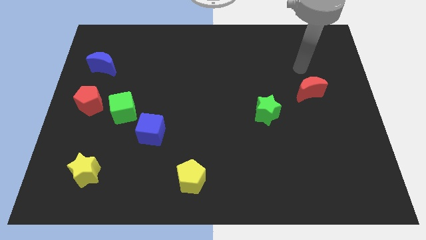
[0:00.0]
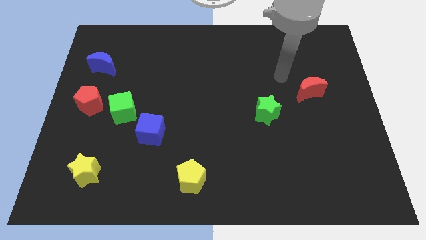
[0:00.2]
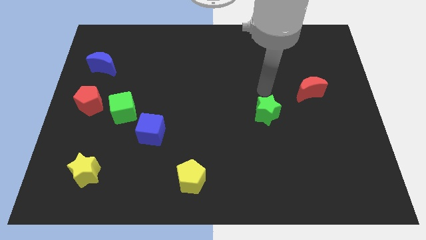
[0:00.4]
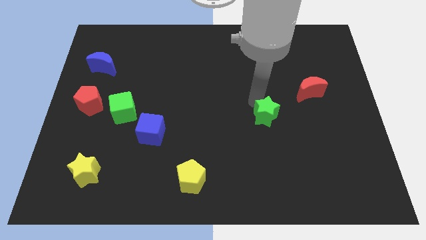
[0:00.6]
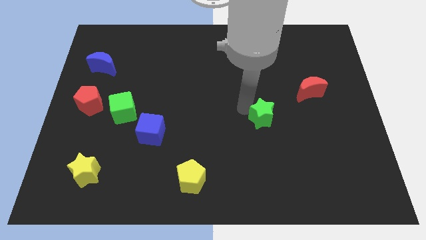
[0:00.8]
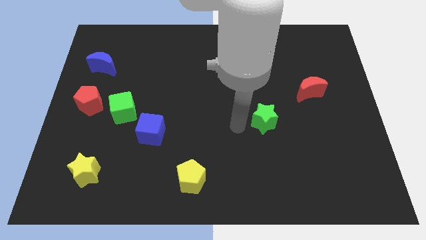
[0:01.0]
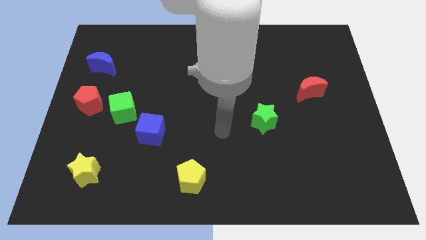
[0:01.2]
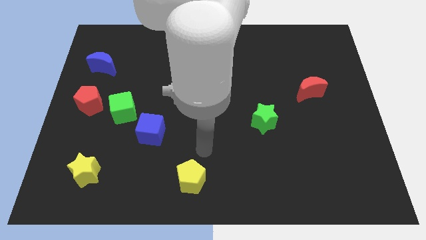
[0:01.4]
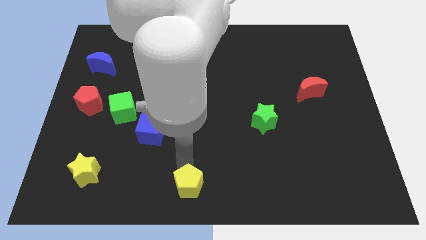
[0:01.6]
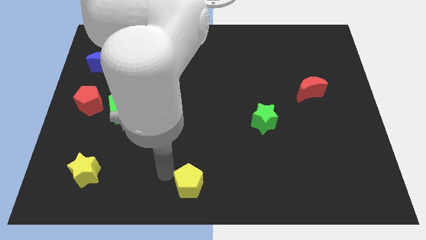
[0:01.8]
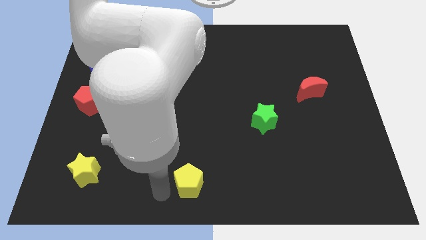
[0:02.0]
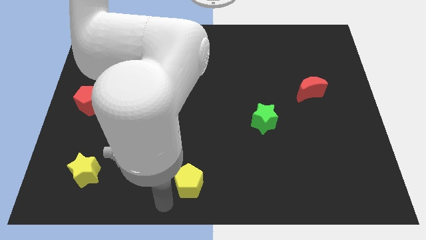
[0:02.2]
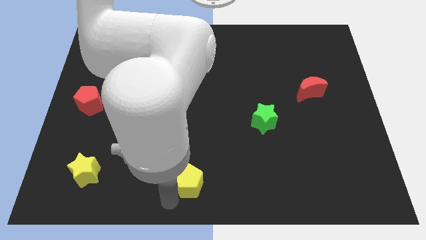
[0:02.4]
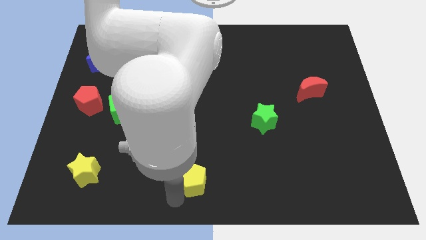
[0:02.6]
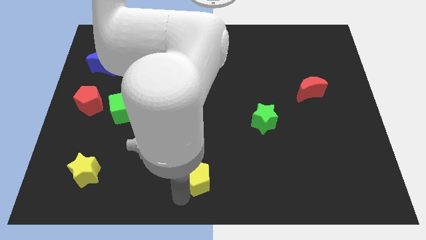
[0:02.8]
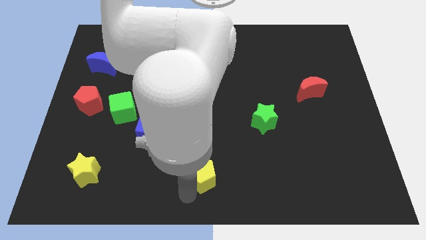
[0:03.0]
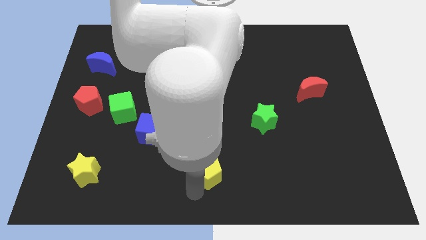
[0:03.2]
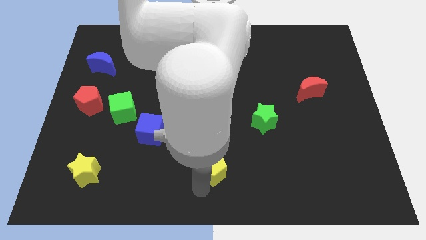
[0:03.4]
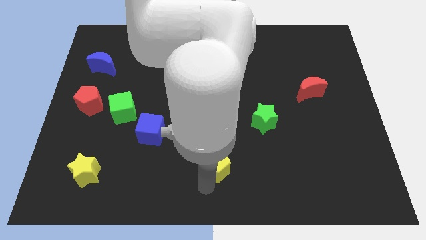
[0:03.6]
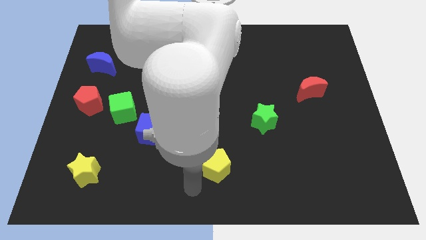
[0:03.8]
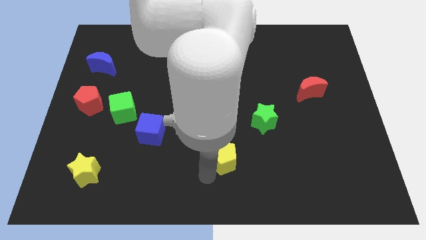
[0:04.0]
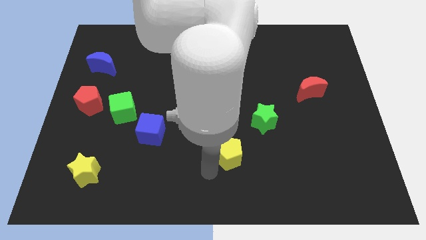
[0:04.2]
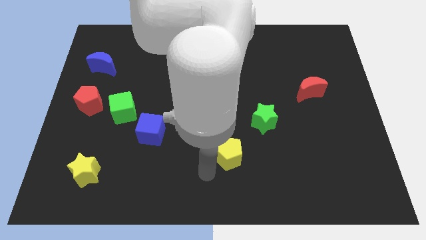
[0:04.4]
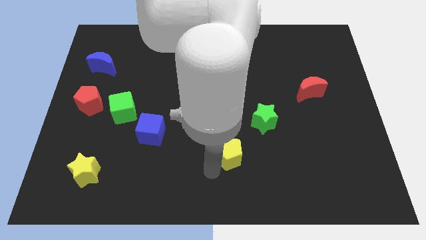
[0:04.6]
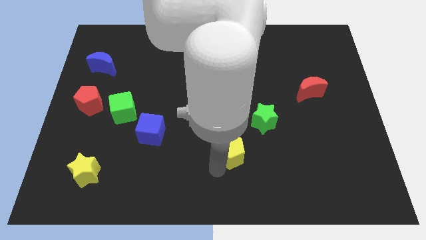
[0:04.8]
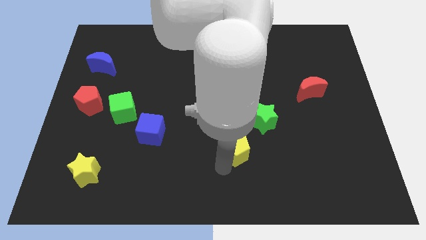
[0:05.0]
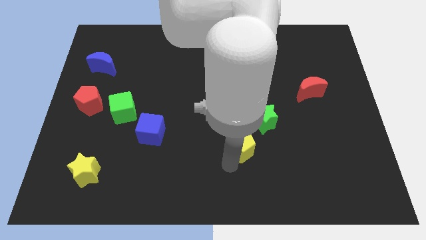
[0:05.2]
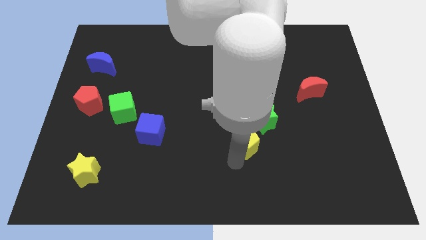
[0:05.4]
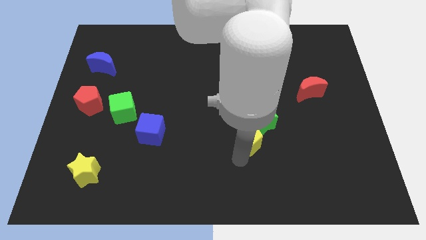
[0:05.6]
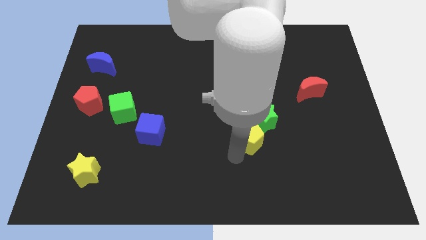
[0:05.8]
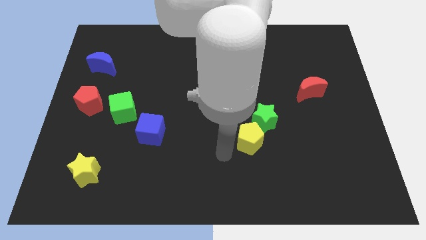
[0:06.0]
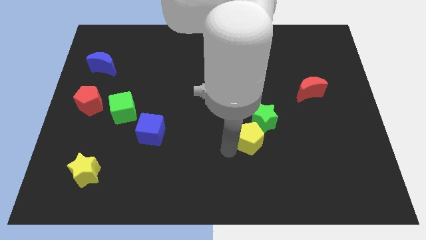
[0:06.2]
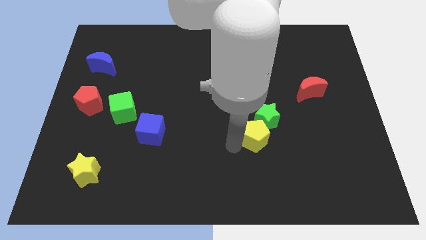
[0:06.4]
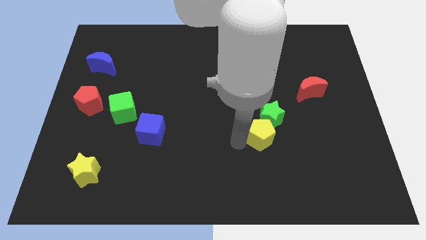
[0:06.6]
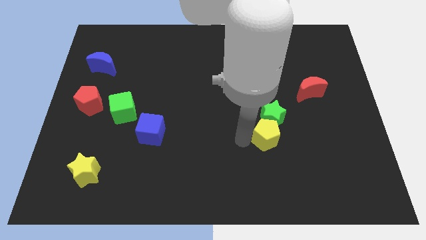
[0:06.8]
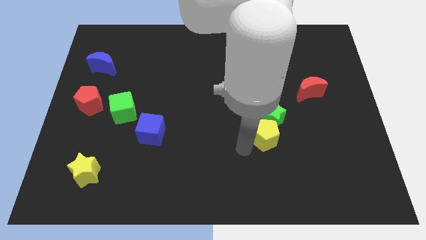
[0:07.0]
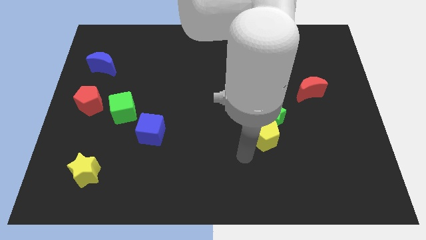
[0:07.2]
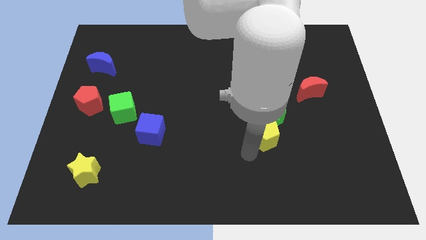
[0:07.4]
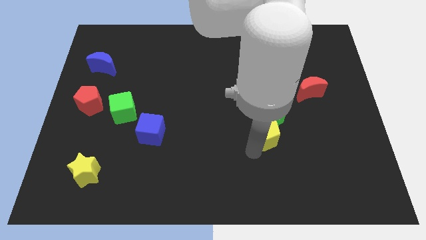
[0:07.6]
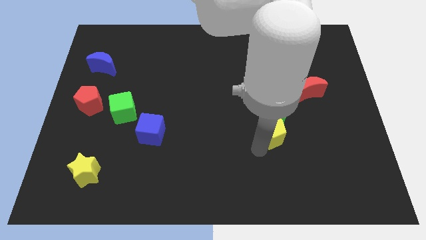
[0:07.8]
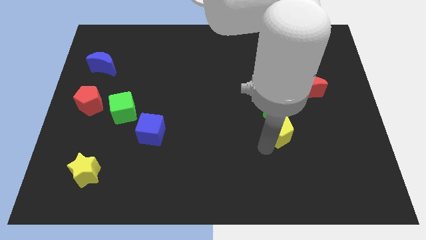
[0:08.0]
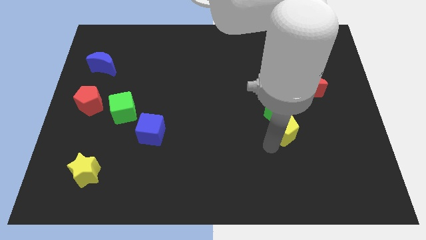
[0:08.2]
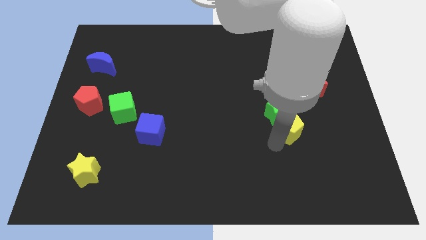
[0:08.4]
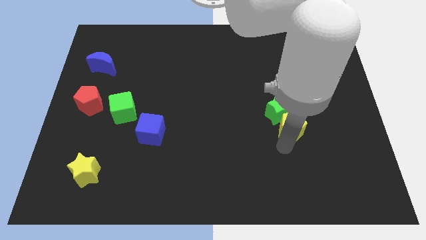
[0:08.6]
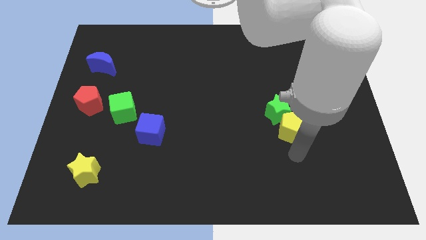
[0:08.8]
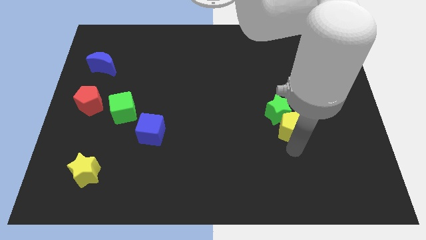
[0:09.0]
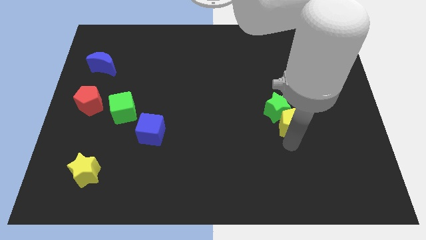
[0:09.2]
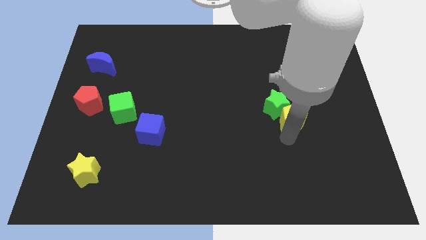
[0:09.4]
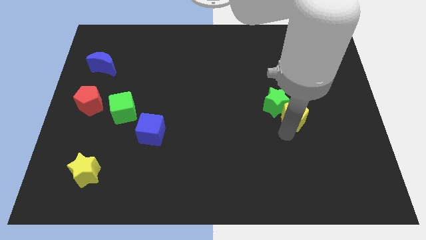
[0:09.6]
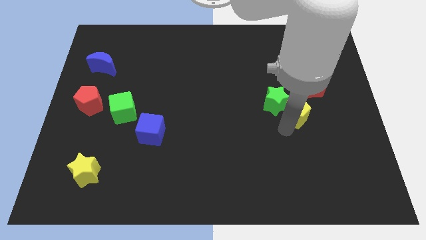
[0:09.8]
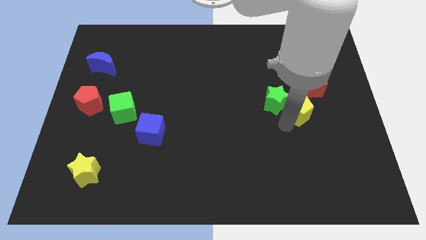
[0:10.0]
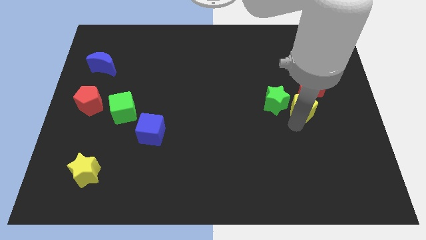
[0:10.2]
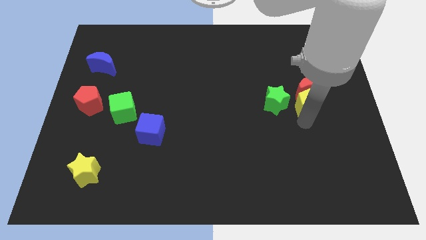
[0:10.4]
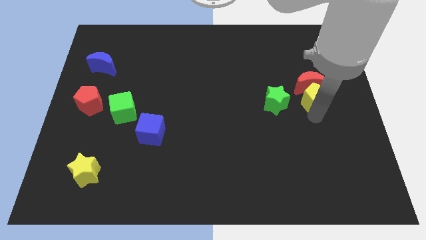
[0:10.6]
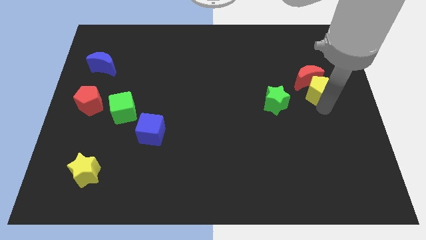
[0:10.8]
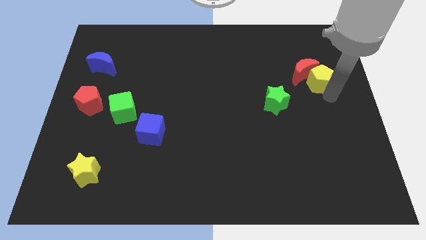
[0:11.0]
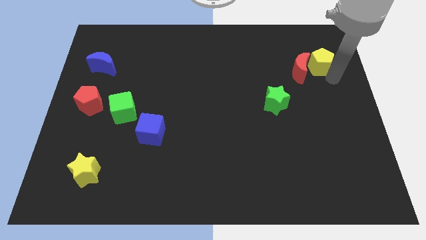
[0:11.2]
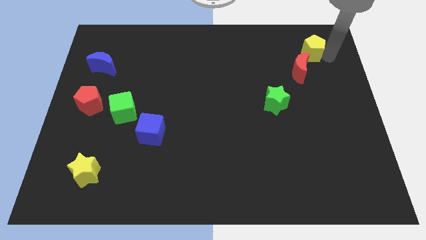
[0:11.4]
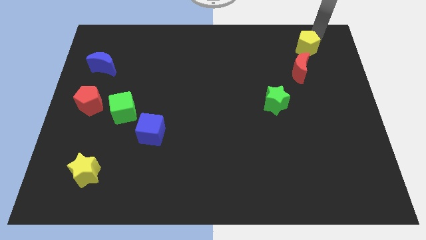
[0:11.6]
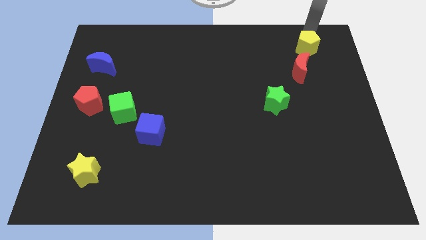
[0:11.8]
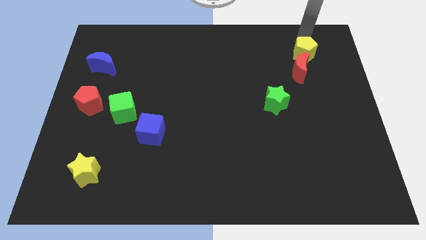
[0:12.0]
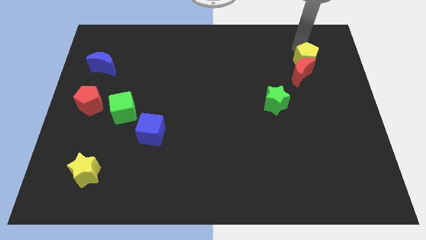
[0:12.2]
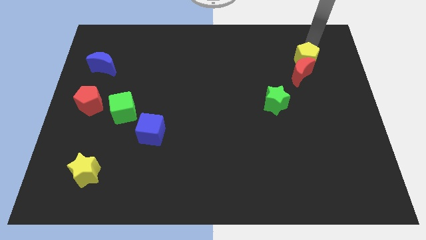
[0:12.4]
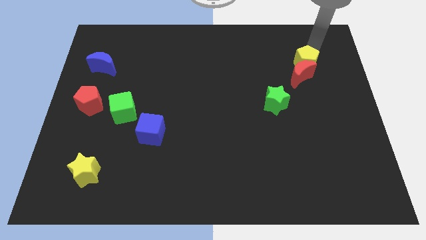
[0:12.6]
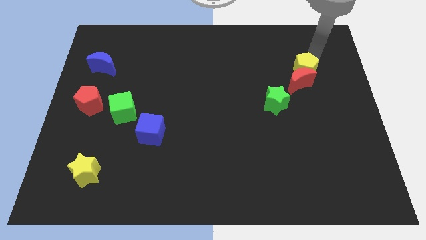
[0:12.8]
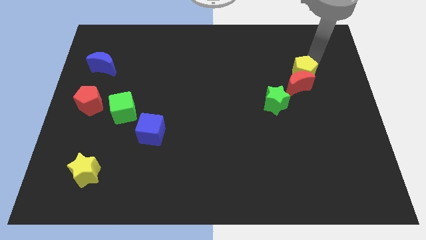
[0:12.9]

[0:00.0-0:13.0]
slide the yellow pentagon to the top right of the green star

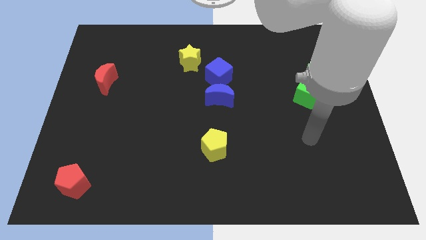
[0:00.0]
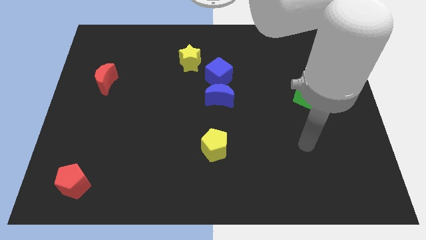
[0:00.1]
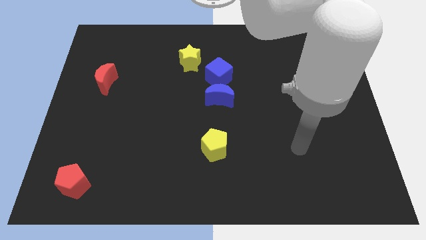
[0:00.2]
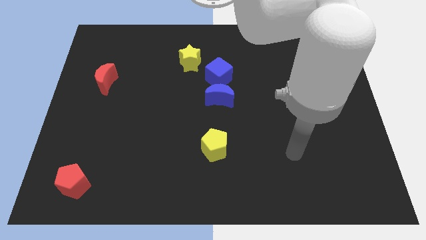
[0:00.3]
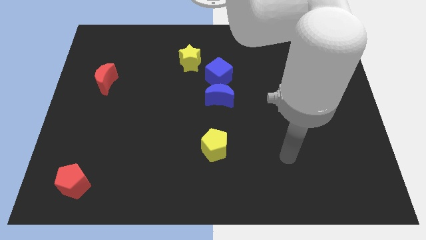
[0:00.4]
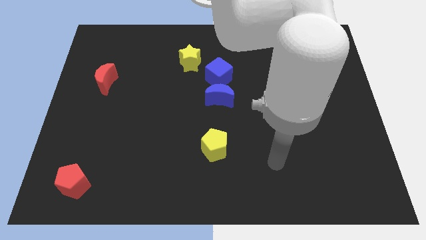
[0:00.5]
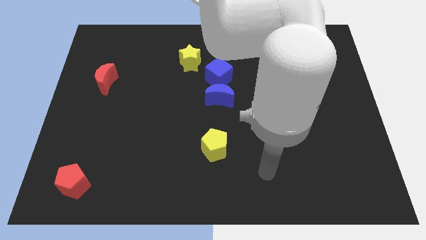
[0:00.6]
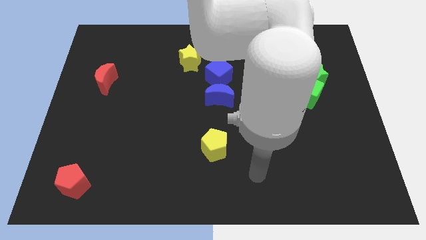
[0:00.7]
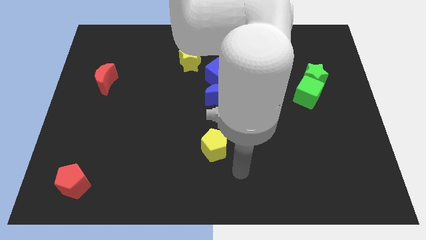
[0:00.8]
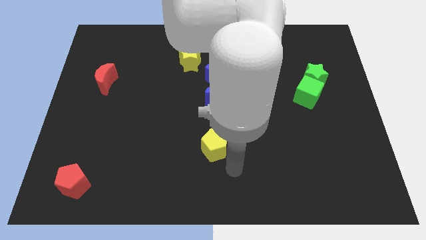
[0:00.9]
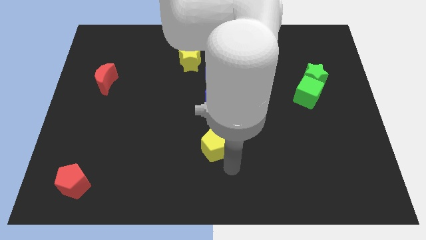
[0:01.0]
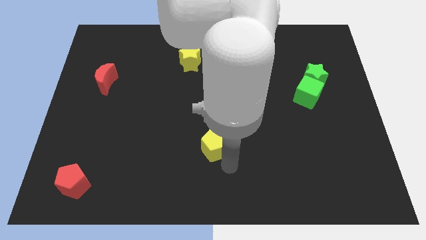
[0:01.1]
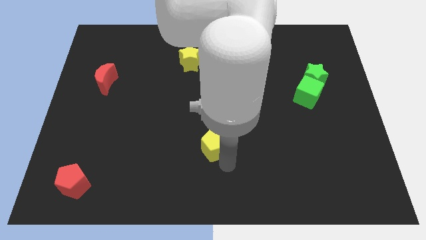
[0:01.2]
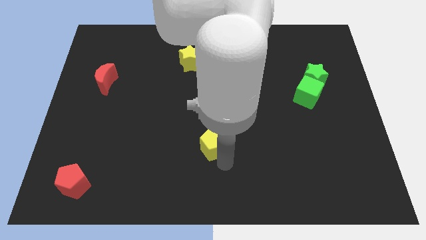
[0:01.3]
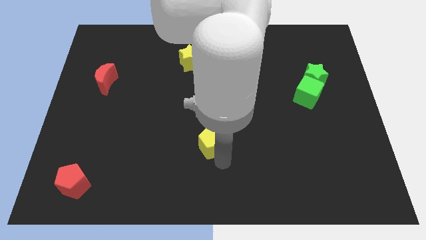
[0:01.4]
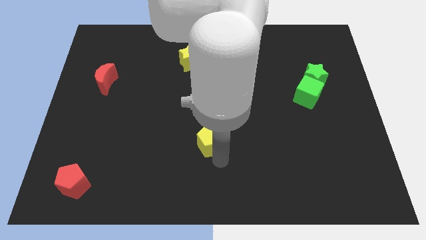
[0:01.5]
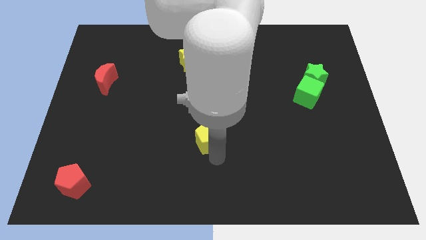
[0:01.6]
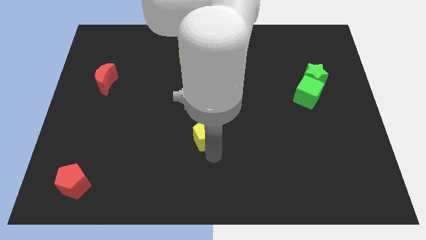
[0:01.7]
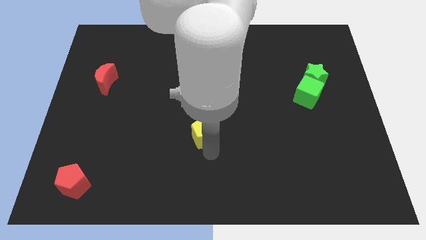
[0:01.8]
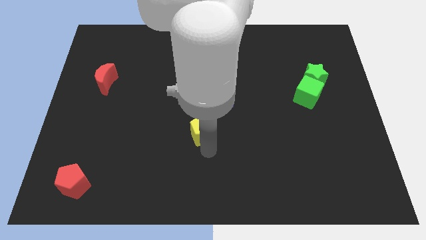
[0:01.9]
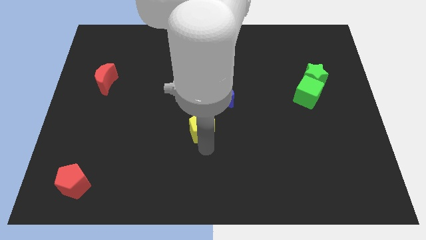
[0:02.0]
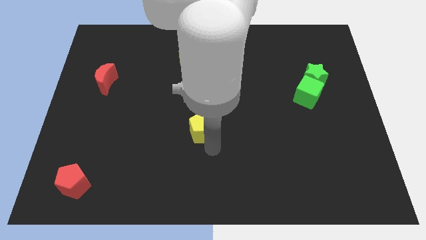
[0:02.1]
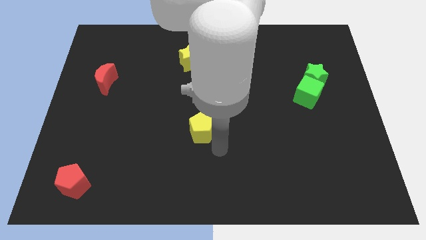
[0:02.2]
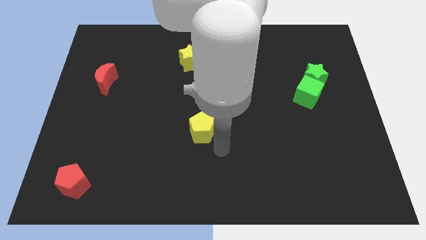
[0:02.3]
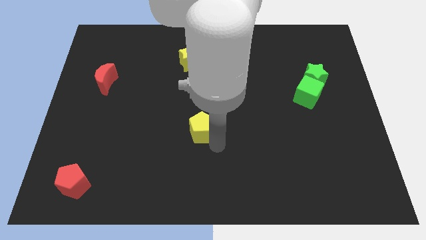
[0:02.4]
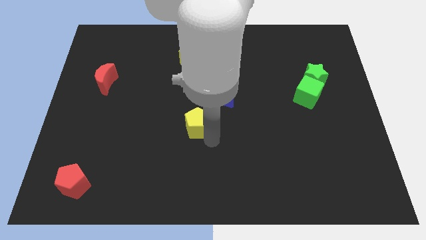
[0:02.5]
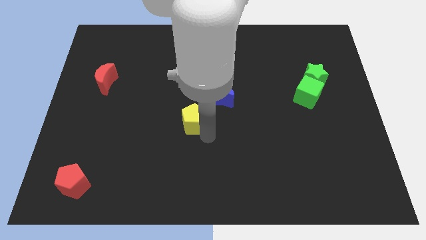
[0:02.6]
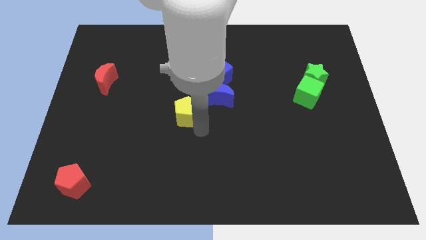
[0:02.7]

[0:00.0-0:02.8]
move the yellow pentagon left of the blue moon
